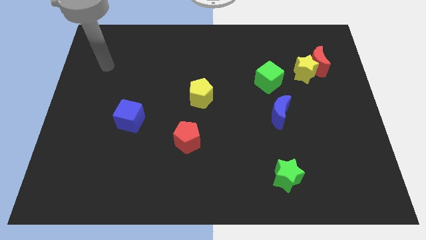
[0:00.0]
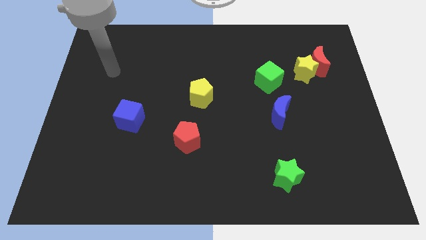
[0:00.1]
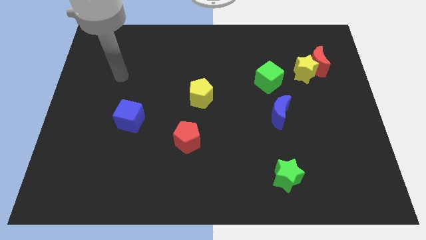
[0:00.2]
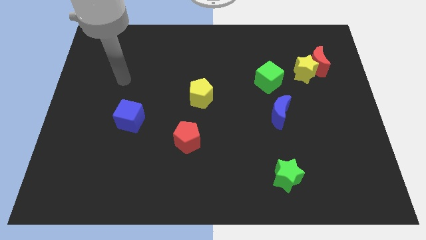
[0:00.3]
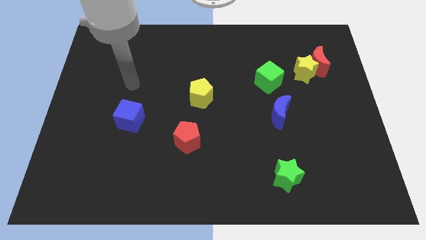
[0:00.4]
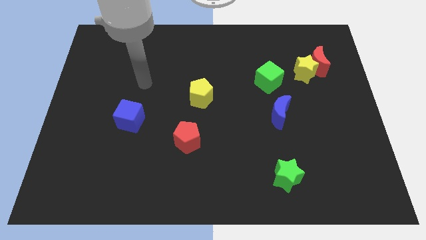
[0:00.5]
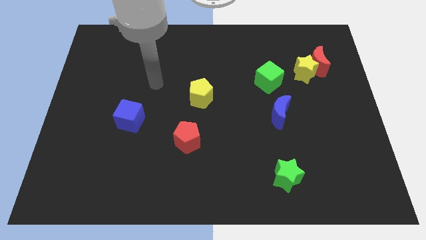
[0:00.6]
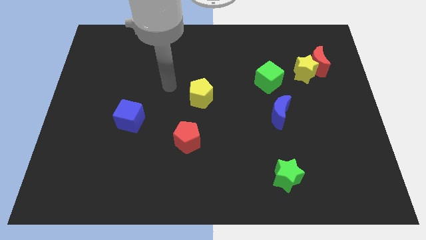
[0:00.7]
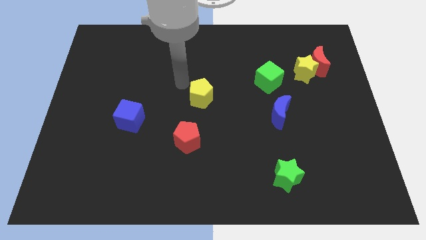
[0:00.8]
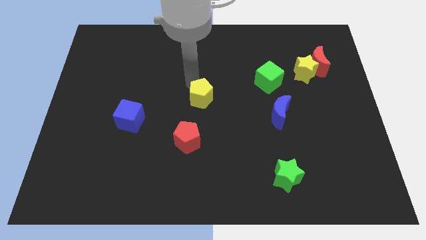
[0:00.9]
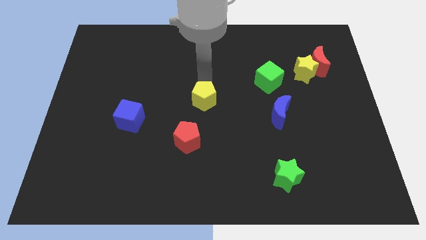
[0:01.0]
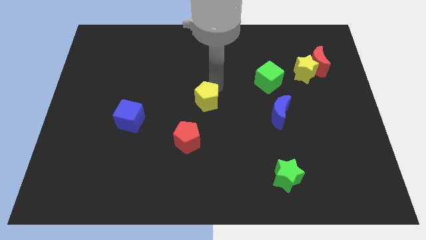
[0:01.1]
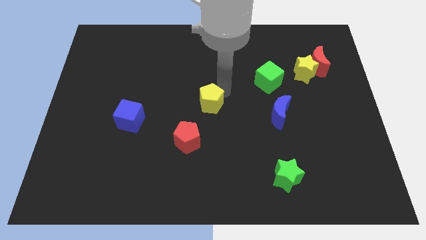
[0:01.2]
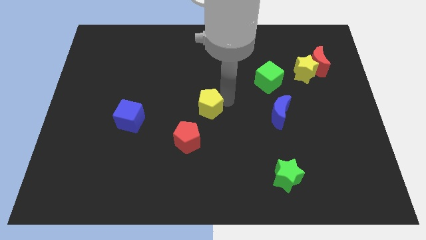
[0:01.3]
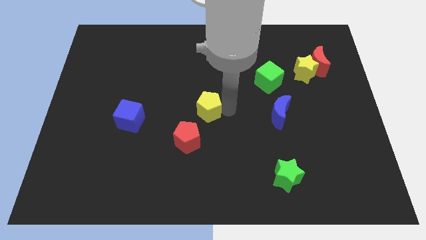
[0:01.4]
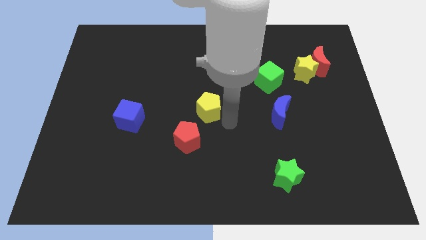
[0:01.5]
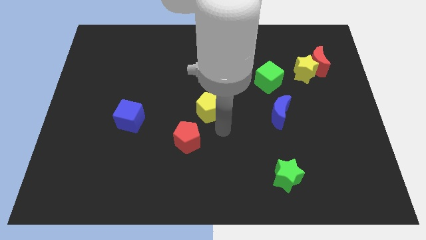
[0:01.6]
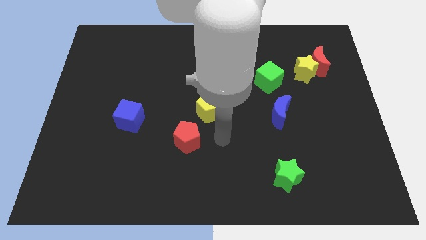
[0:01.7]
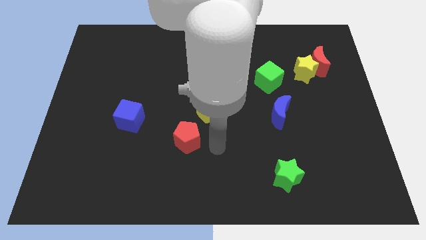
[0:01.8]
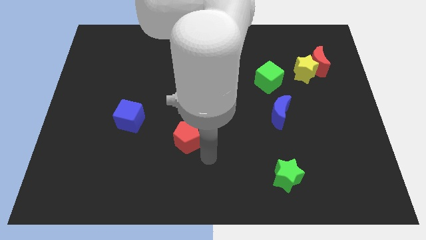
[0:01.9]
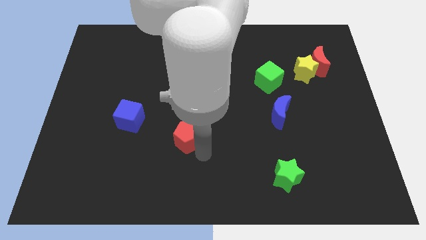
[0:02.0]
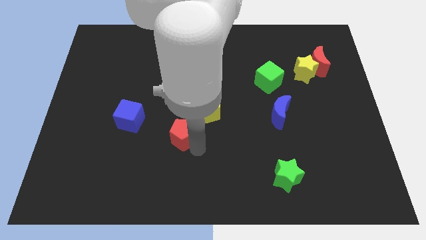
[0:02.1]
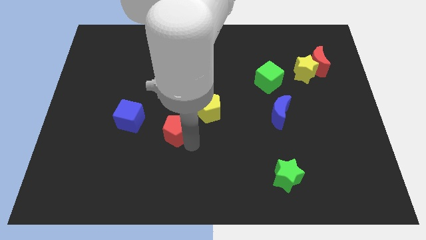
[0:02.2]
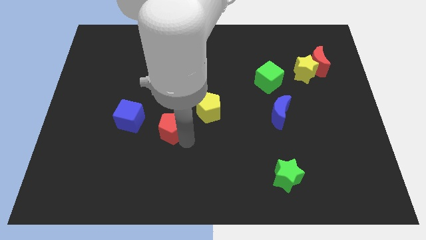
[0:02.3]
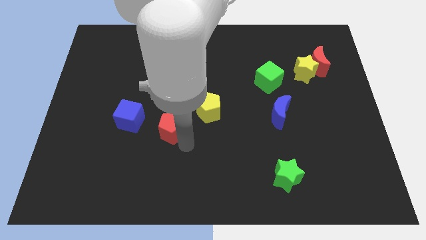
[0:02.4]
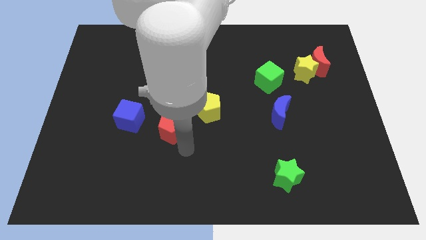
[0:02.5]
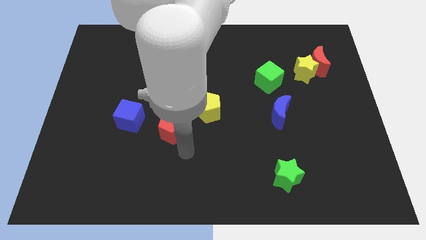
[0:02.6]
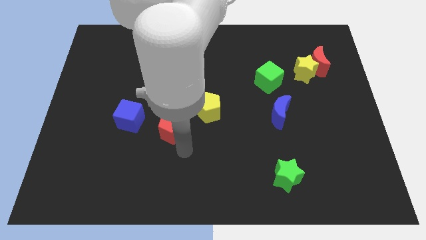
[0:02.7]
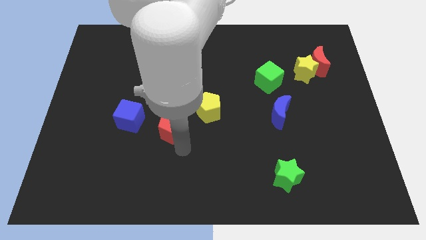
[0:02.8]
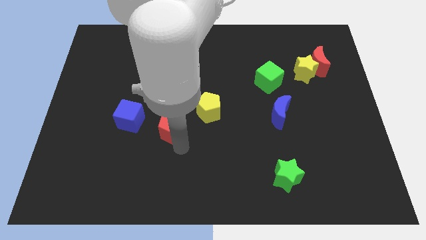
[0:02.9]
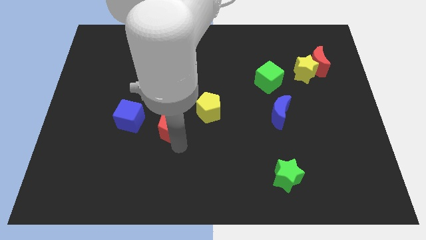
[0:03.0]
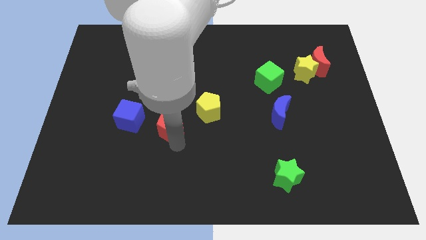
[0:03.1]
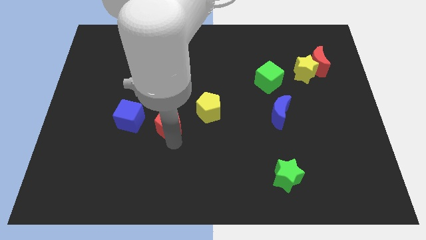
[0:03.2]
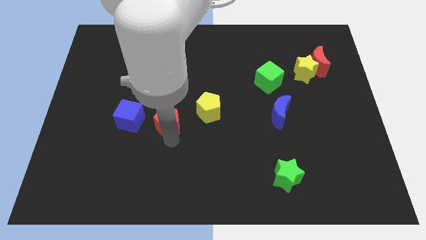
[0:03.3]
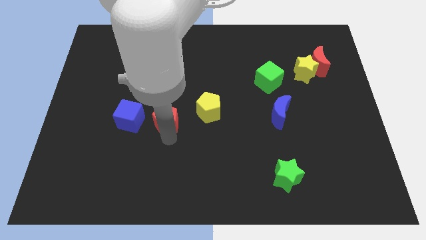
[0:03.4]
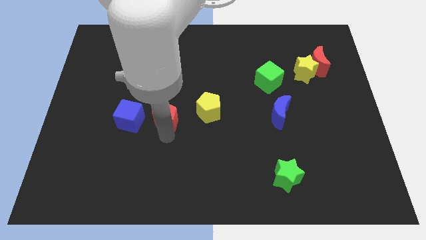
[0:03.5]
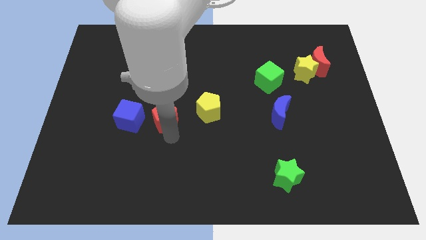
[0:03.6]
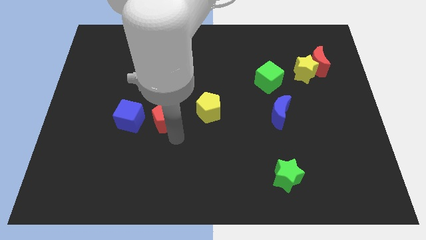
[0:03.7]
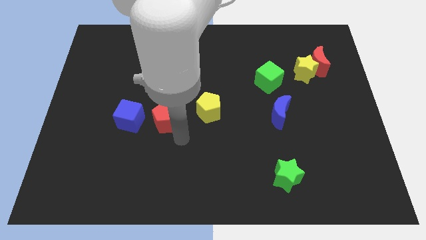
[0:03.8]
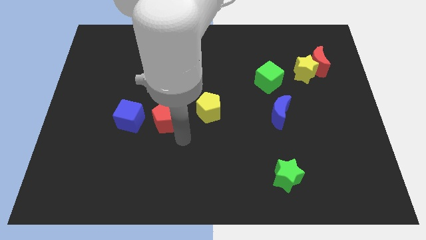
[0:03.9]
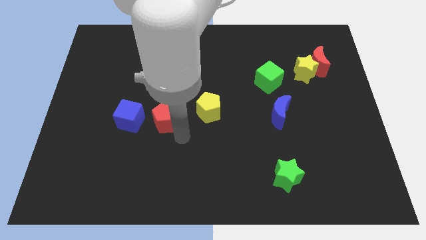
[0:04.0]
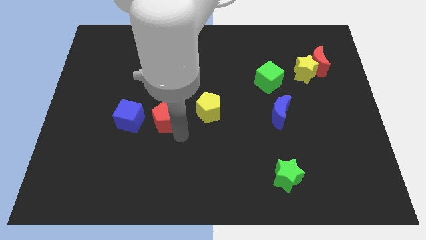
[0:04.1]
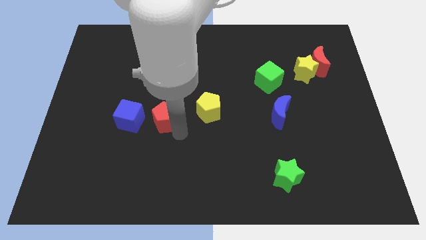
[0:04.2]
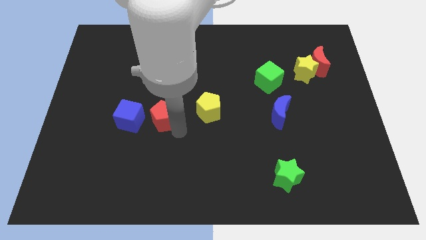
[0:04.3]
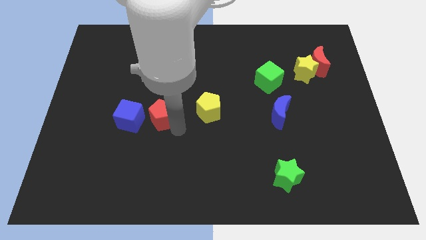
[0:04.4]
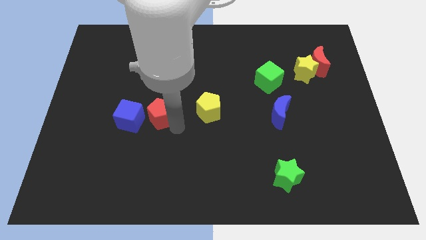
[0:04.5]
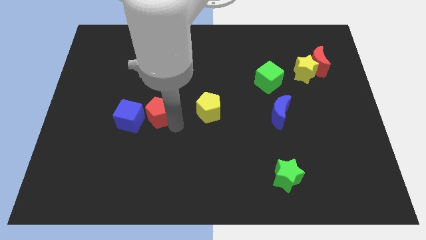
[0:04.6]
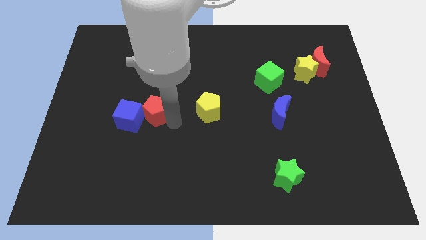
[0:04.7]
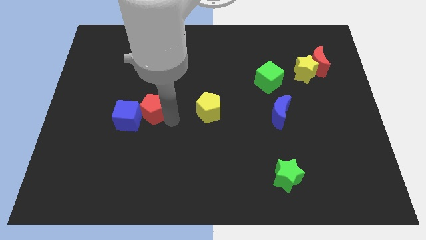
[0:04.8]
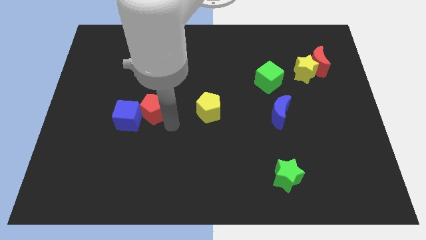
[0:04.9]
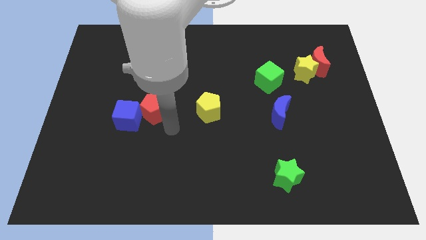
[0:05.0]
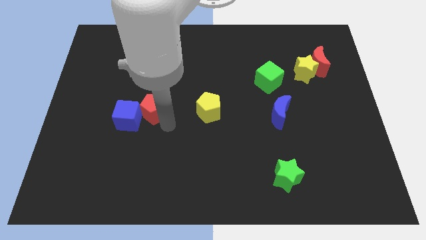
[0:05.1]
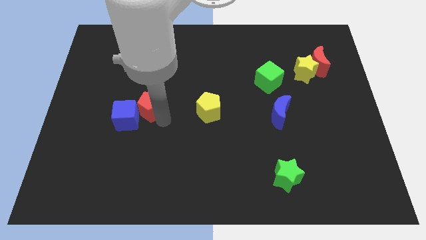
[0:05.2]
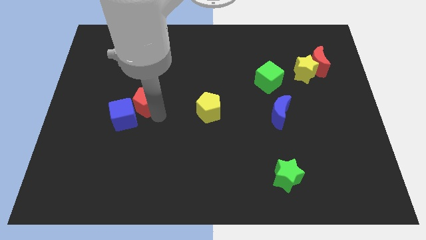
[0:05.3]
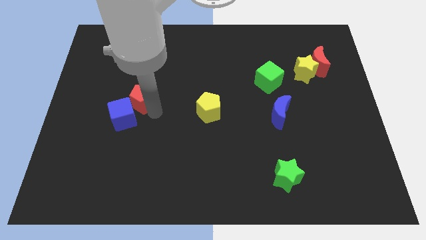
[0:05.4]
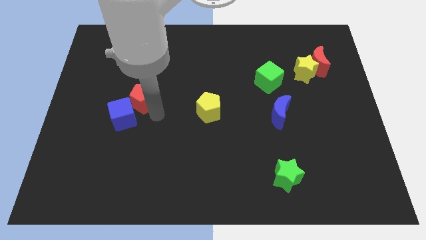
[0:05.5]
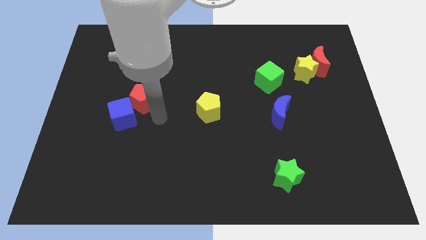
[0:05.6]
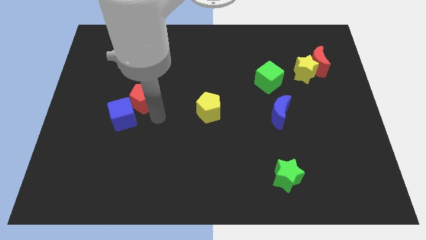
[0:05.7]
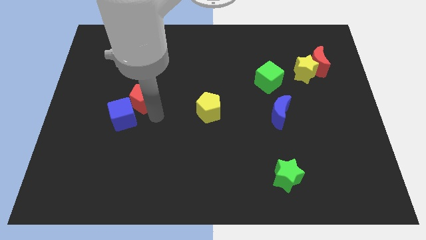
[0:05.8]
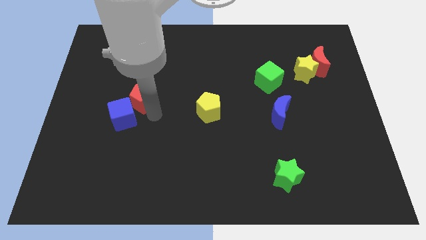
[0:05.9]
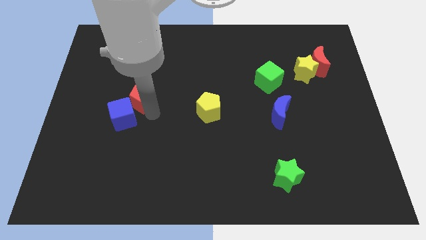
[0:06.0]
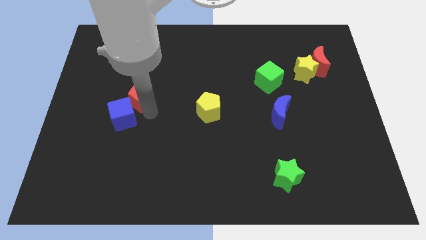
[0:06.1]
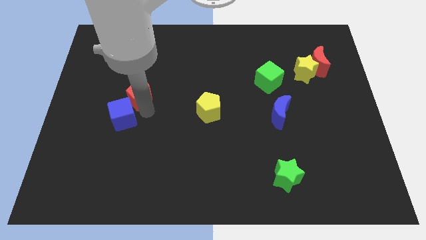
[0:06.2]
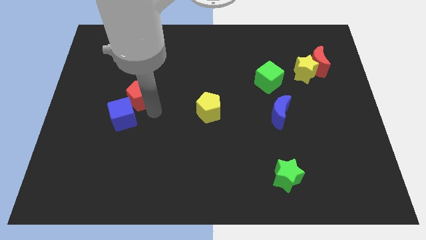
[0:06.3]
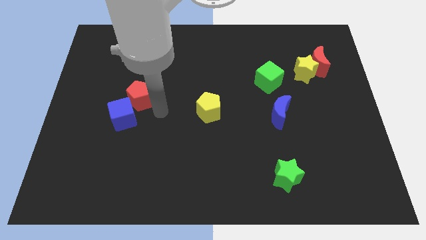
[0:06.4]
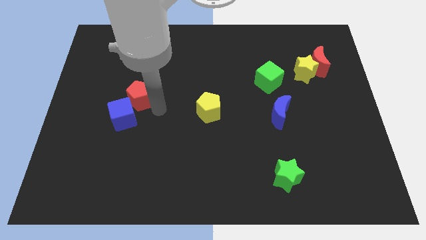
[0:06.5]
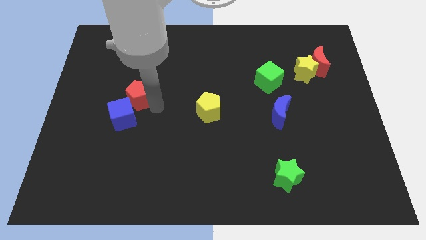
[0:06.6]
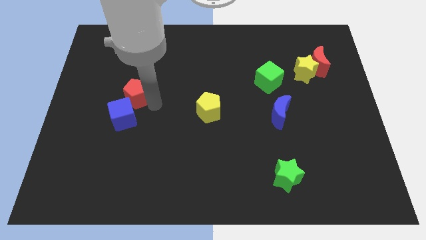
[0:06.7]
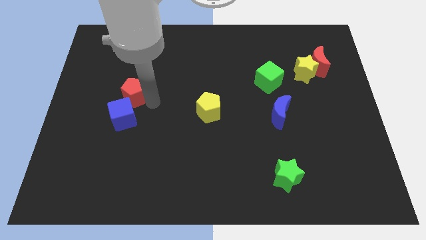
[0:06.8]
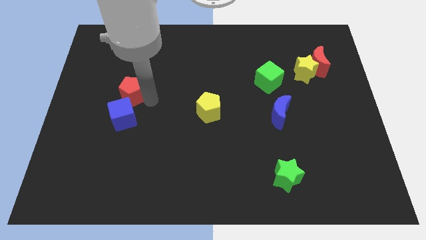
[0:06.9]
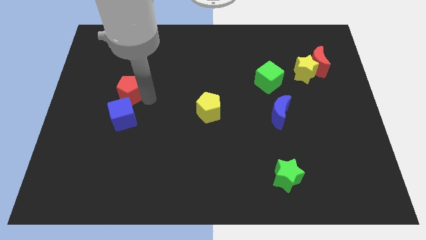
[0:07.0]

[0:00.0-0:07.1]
move the red pentagon up and left diagonally

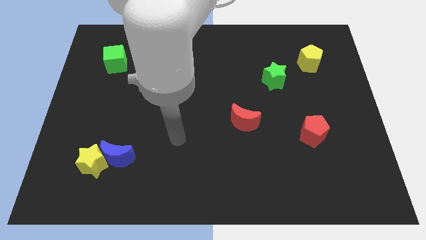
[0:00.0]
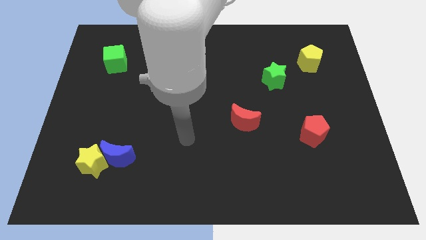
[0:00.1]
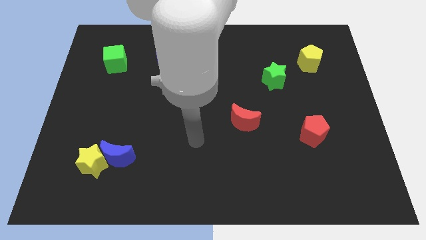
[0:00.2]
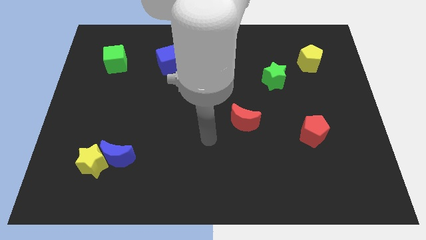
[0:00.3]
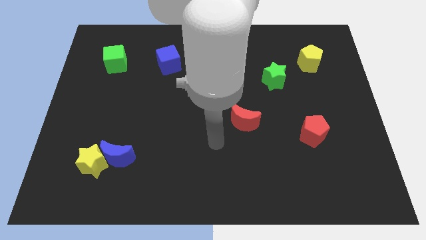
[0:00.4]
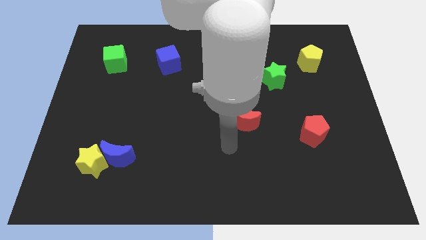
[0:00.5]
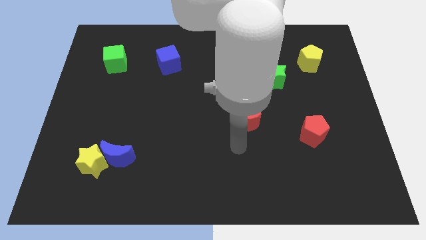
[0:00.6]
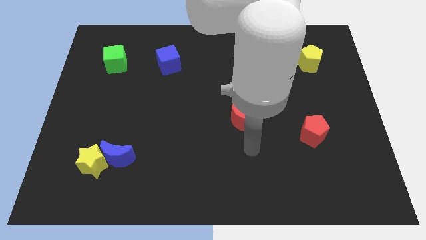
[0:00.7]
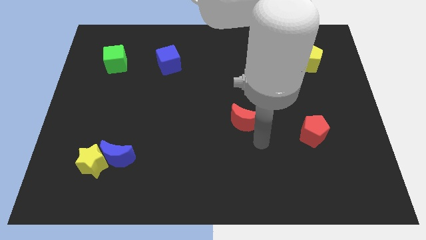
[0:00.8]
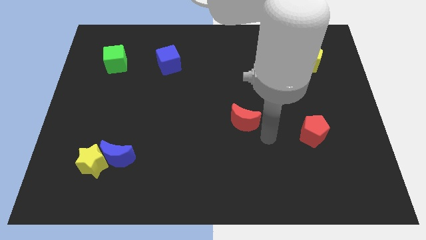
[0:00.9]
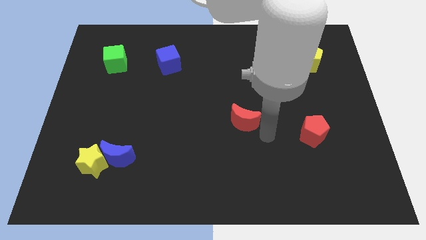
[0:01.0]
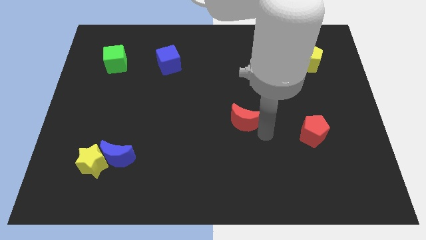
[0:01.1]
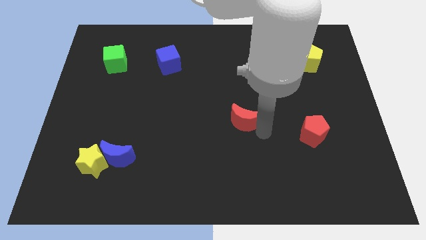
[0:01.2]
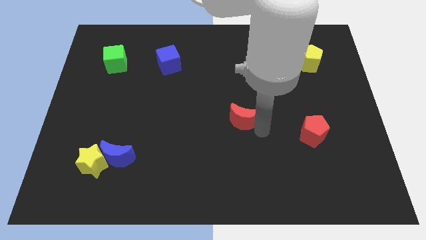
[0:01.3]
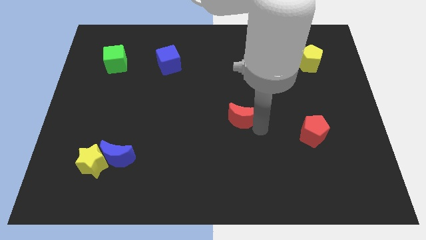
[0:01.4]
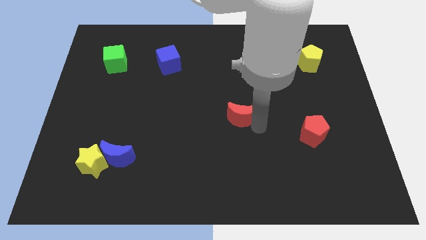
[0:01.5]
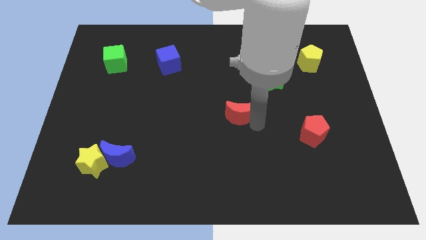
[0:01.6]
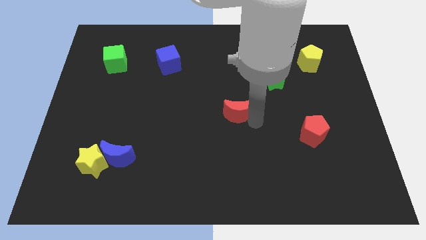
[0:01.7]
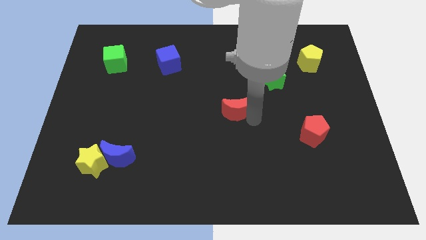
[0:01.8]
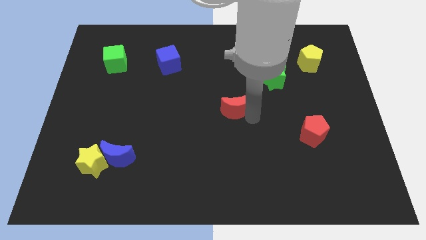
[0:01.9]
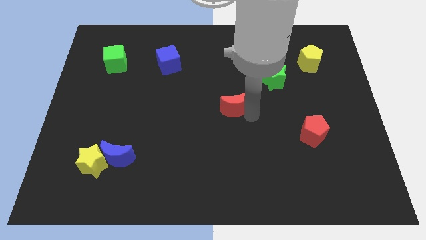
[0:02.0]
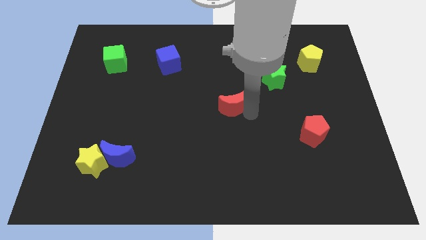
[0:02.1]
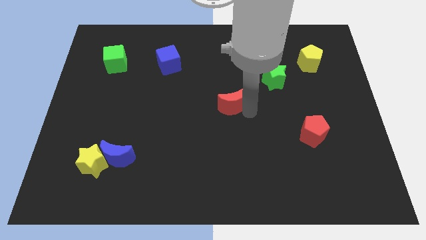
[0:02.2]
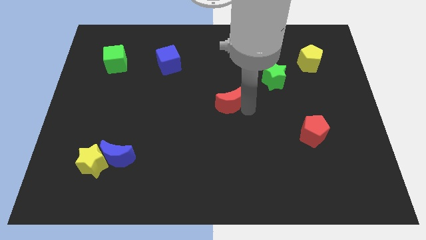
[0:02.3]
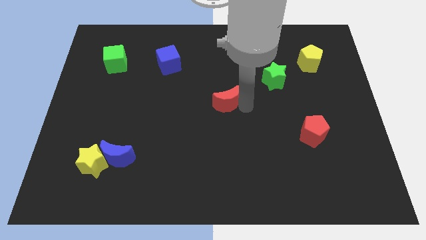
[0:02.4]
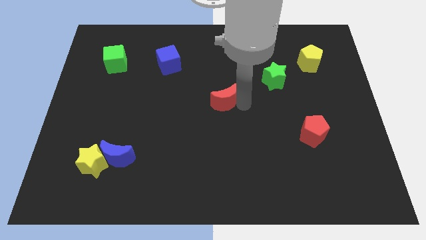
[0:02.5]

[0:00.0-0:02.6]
slide the red moon upwards and left a little bit
